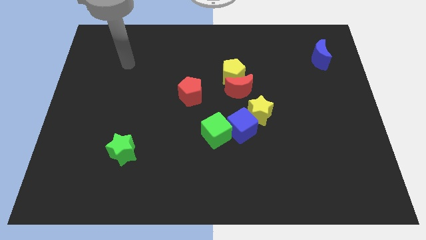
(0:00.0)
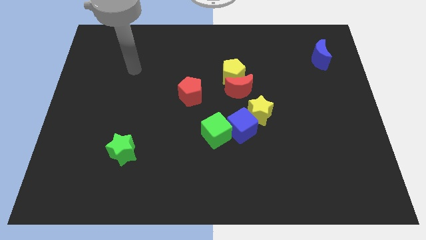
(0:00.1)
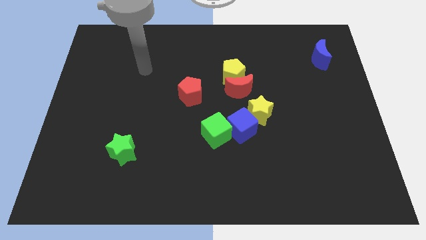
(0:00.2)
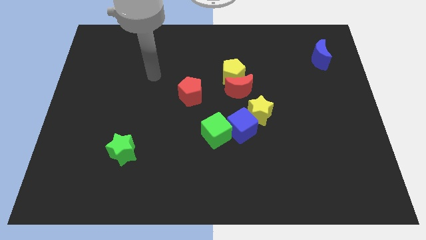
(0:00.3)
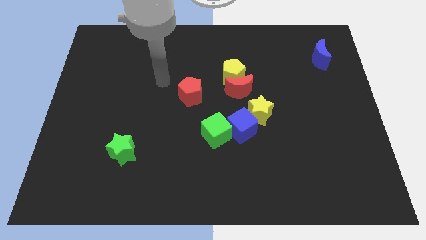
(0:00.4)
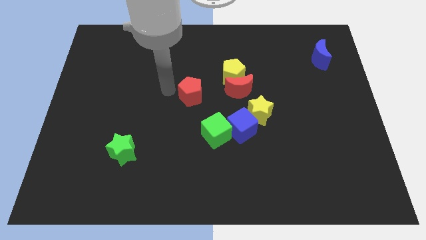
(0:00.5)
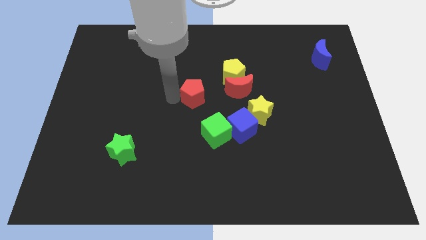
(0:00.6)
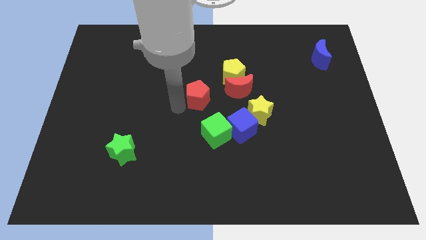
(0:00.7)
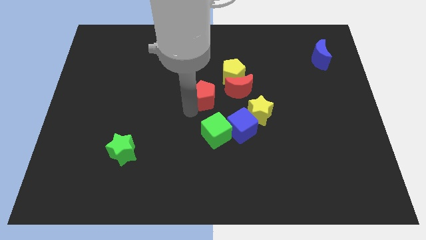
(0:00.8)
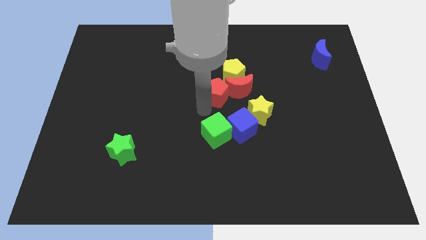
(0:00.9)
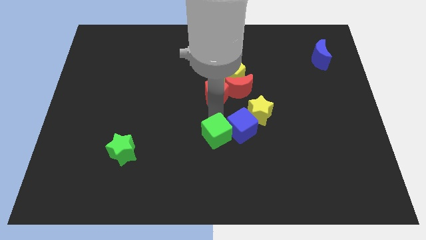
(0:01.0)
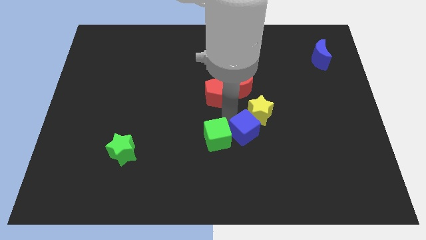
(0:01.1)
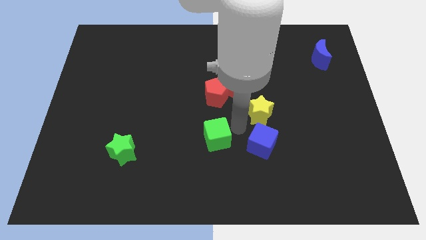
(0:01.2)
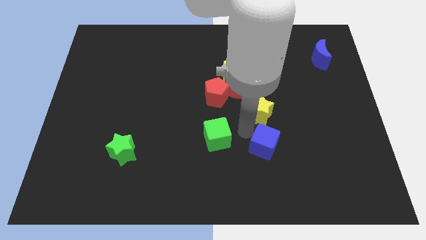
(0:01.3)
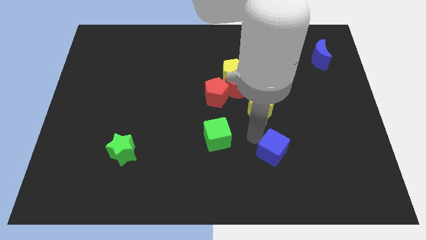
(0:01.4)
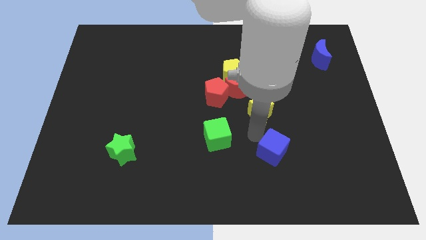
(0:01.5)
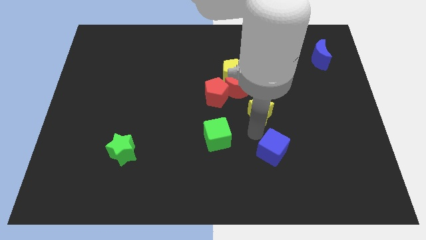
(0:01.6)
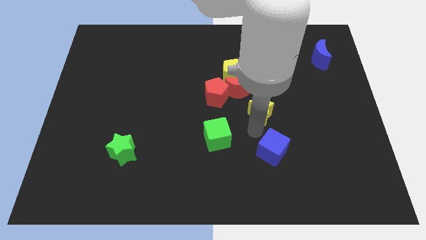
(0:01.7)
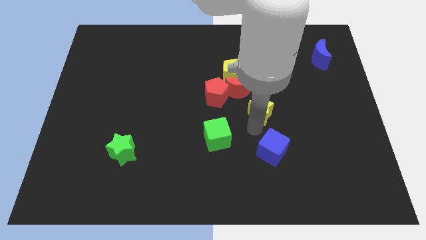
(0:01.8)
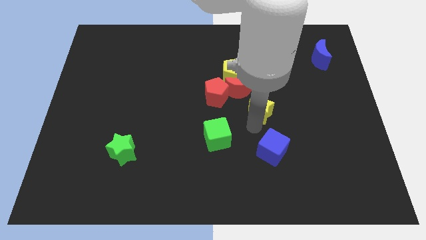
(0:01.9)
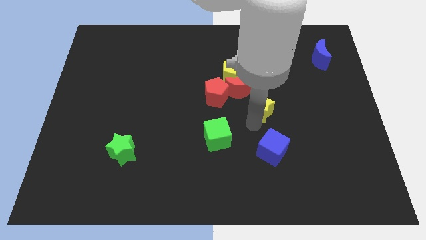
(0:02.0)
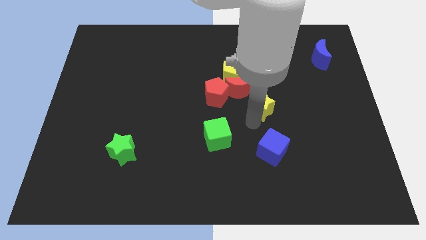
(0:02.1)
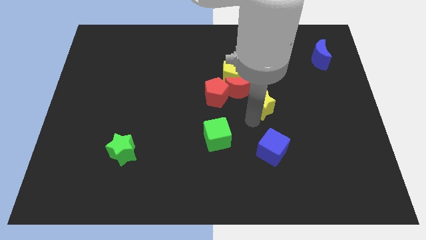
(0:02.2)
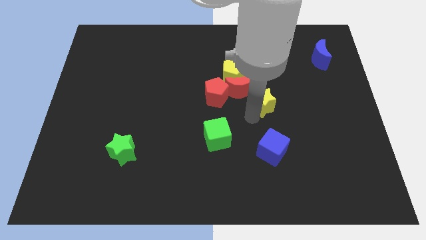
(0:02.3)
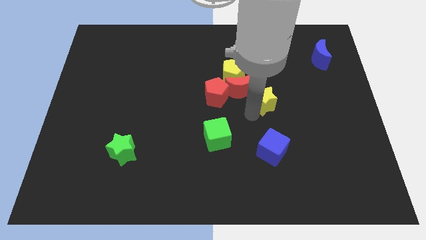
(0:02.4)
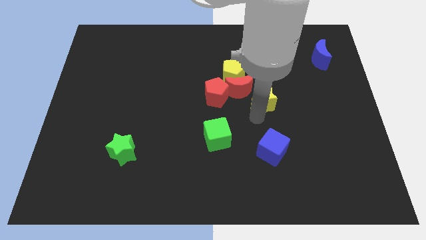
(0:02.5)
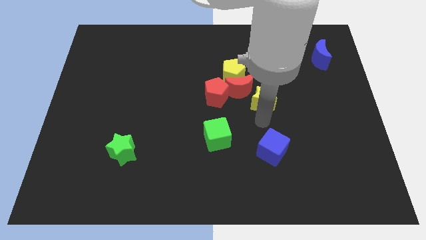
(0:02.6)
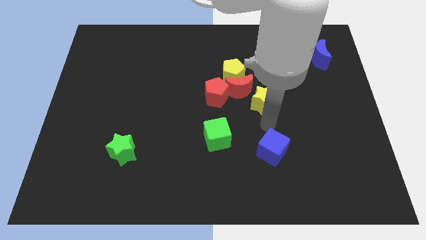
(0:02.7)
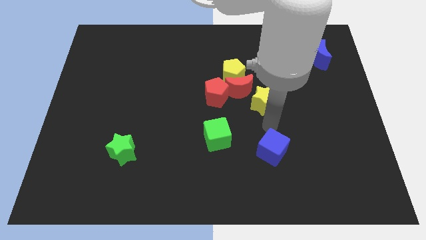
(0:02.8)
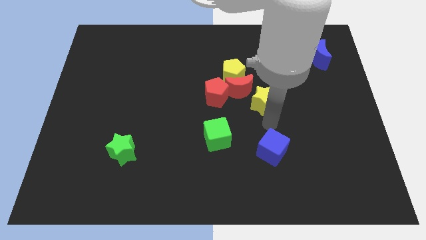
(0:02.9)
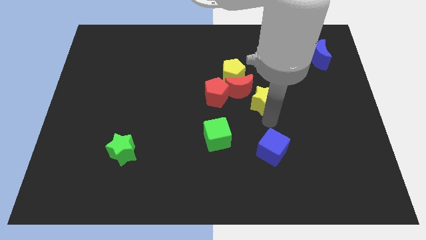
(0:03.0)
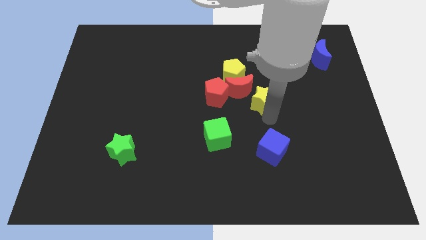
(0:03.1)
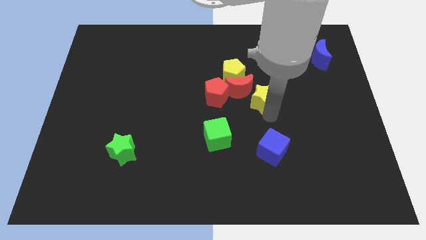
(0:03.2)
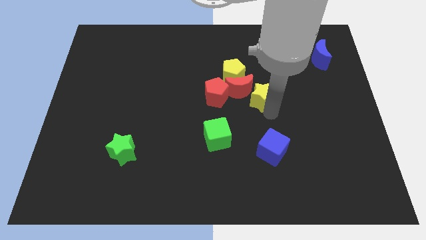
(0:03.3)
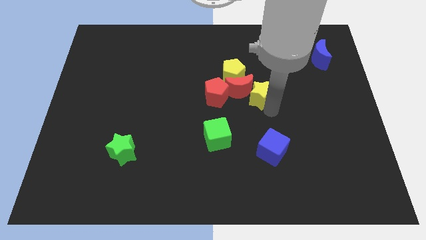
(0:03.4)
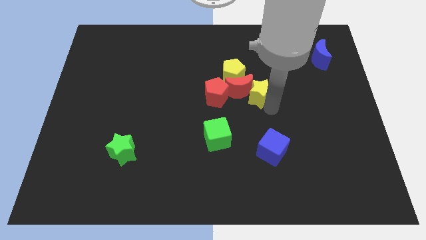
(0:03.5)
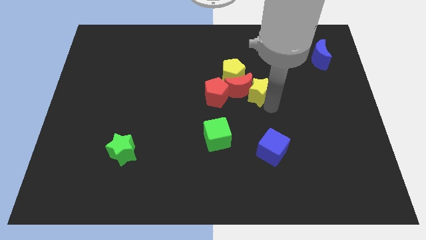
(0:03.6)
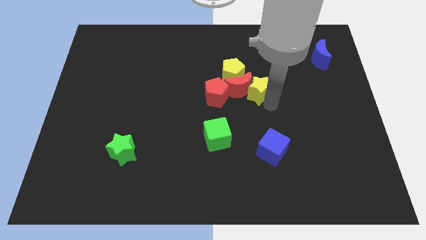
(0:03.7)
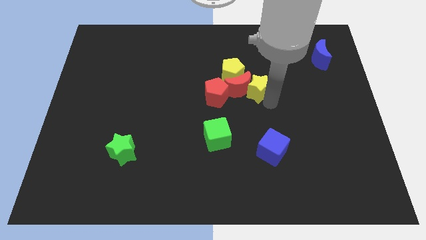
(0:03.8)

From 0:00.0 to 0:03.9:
move the yellow star up a little bit

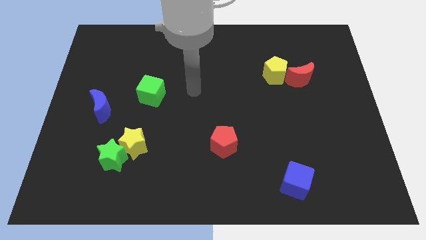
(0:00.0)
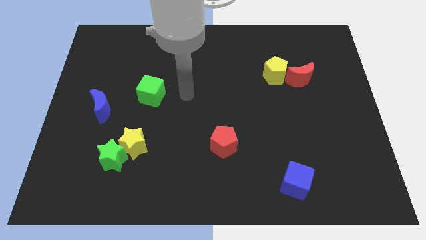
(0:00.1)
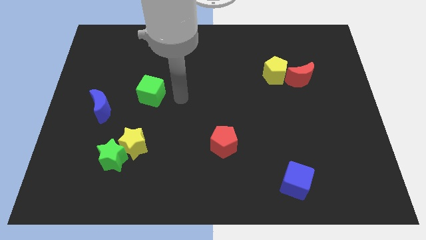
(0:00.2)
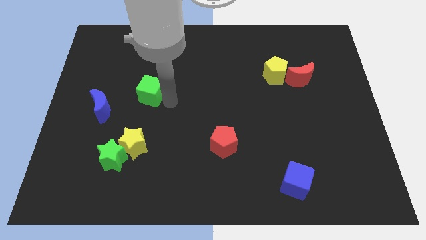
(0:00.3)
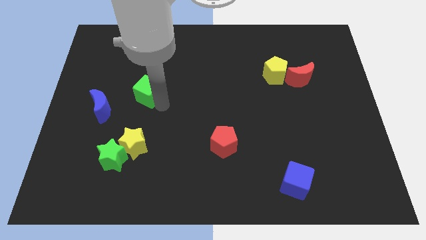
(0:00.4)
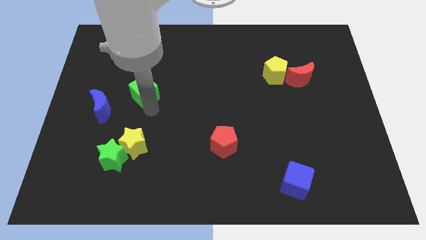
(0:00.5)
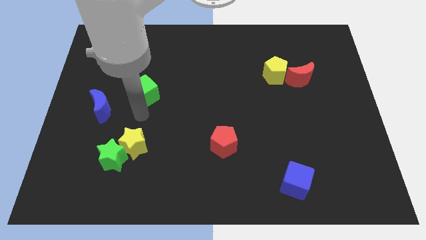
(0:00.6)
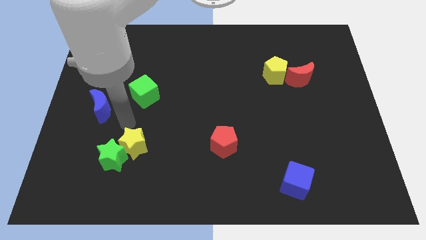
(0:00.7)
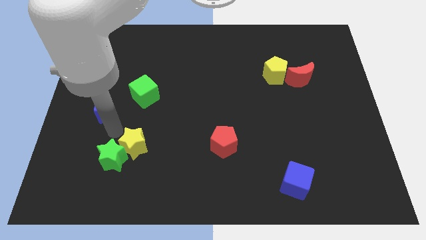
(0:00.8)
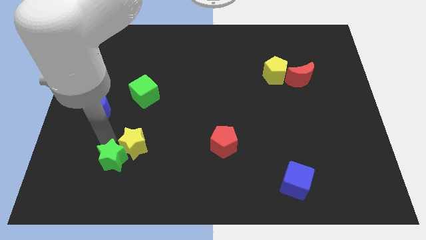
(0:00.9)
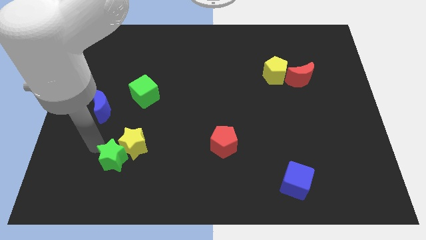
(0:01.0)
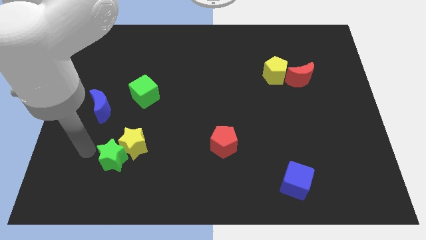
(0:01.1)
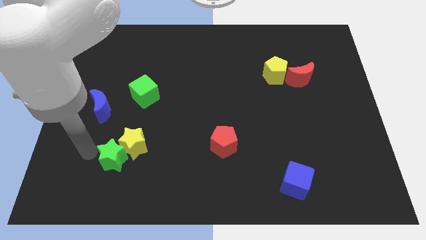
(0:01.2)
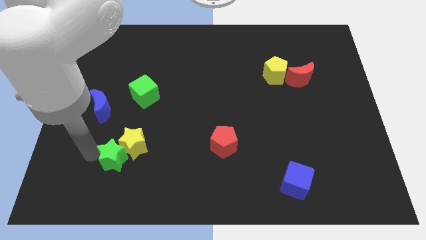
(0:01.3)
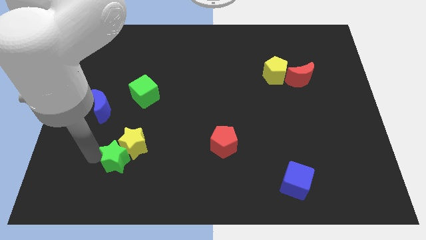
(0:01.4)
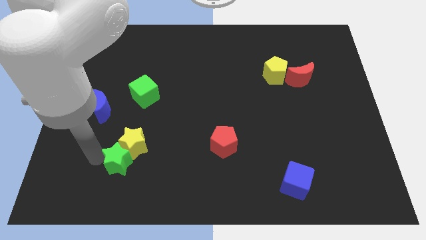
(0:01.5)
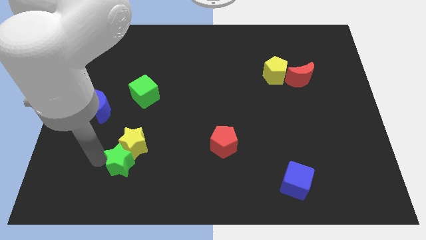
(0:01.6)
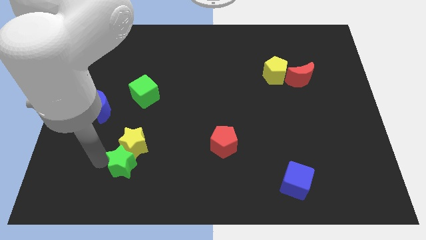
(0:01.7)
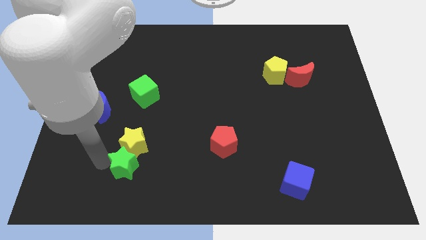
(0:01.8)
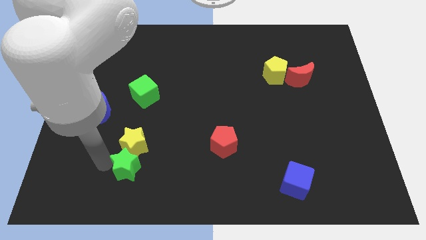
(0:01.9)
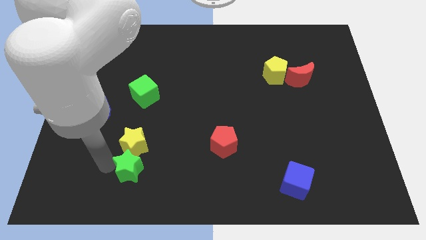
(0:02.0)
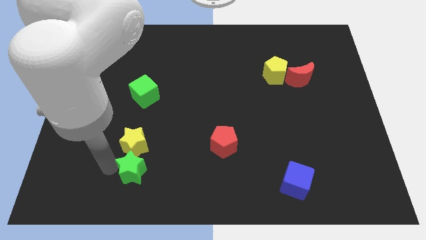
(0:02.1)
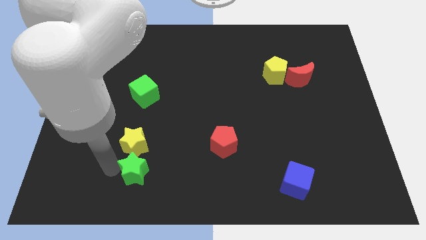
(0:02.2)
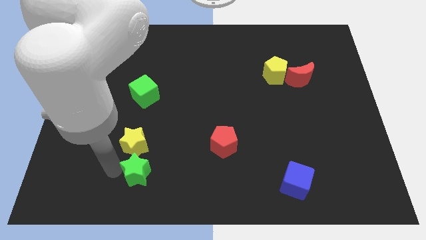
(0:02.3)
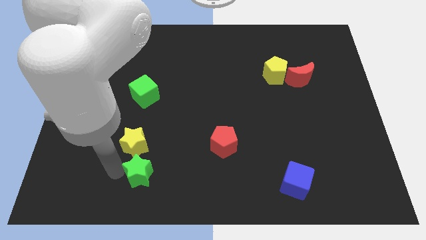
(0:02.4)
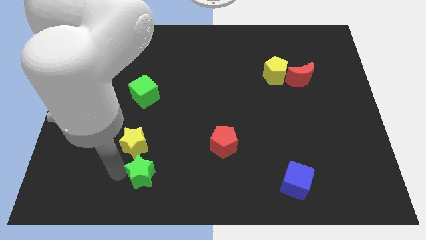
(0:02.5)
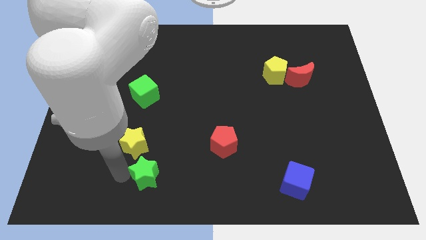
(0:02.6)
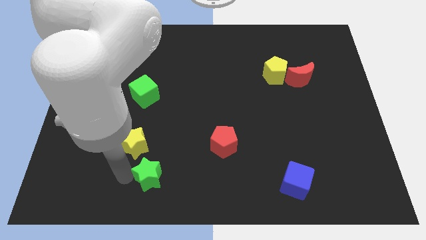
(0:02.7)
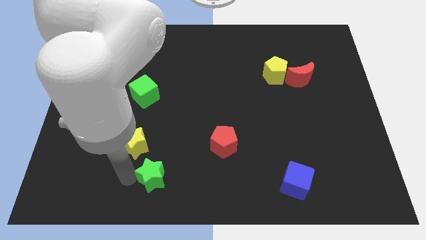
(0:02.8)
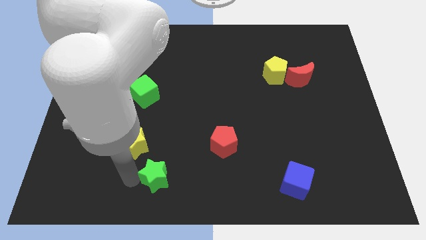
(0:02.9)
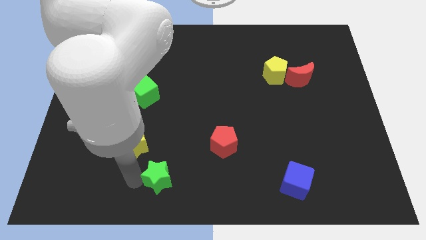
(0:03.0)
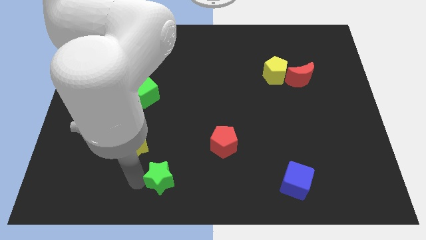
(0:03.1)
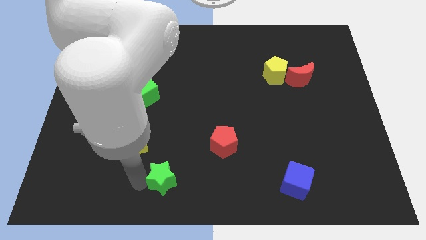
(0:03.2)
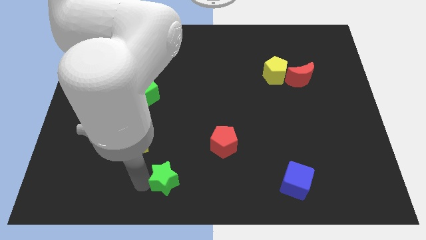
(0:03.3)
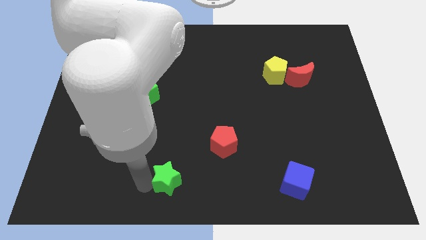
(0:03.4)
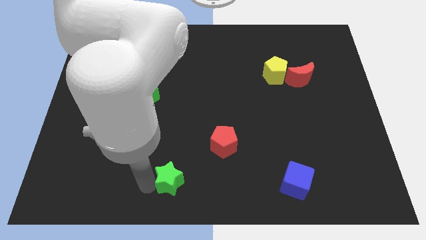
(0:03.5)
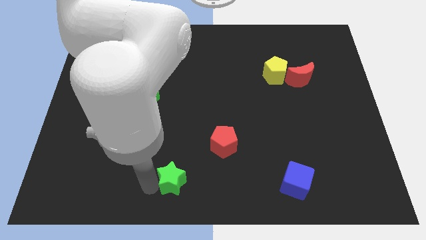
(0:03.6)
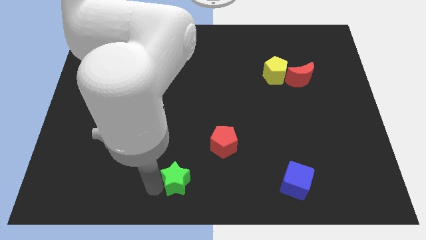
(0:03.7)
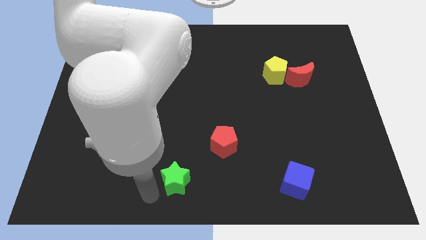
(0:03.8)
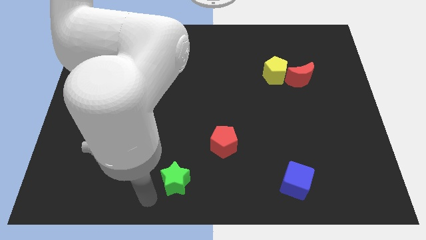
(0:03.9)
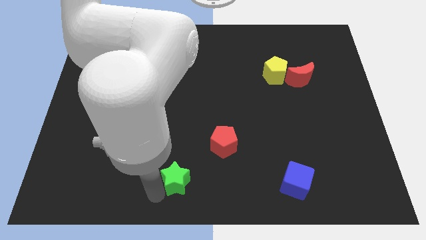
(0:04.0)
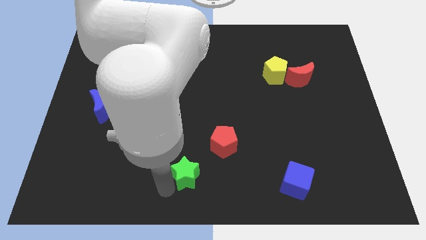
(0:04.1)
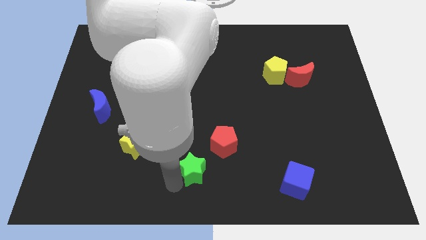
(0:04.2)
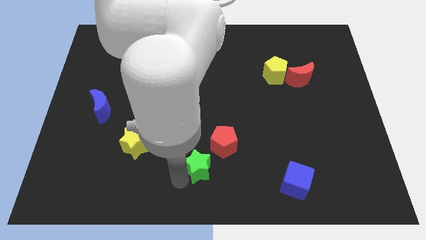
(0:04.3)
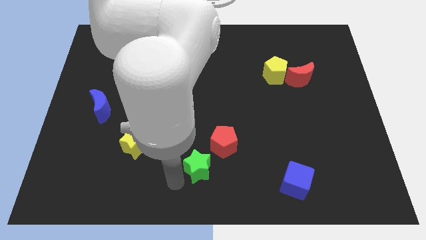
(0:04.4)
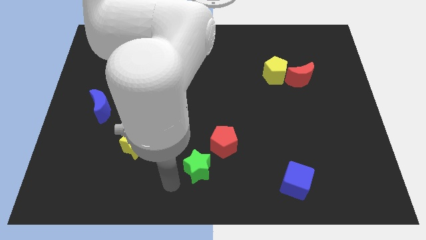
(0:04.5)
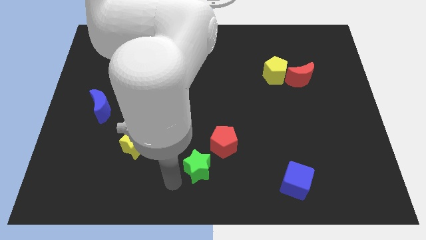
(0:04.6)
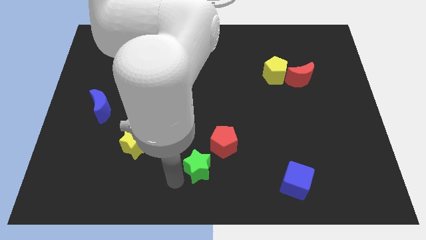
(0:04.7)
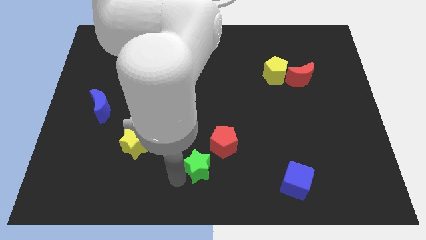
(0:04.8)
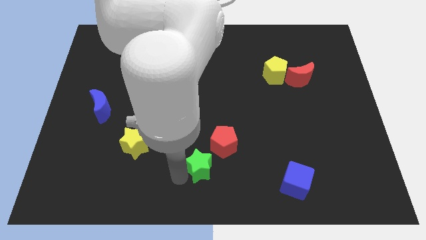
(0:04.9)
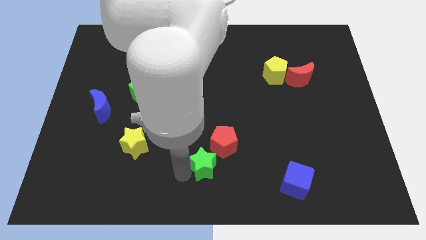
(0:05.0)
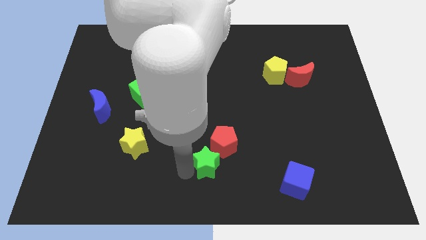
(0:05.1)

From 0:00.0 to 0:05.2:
slide the green star to the right
